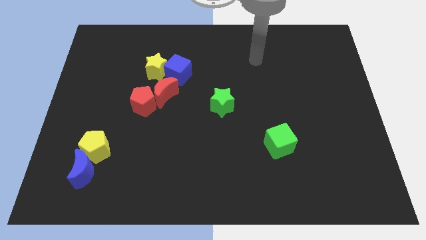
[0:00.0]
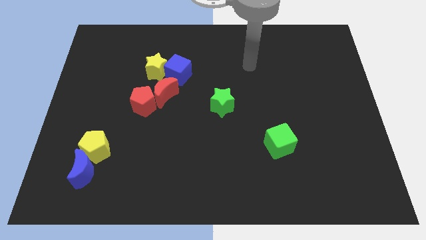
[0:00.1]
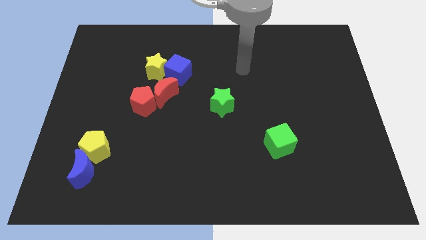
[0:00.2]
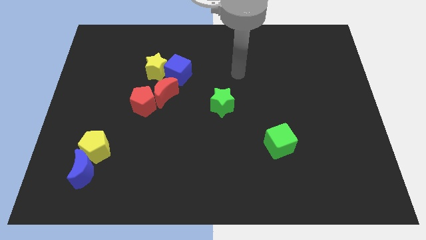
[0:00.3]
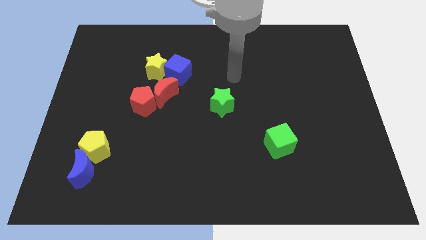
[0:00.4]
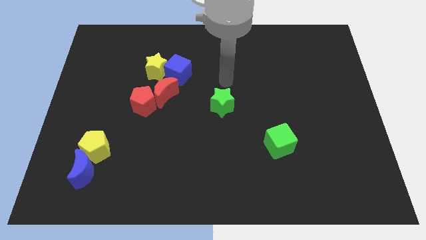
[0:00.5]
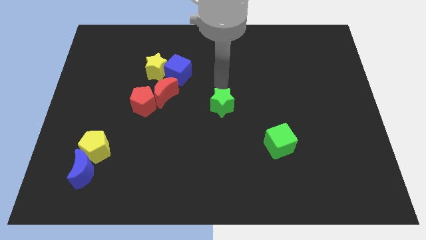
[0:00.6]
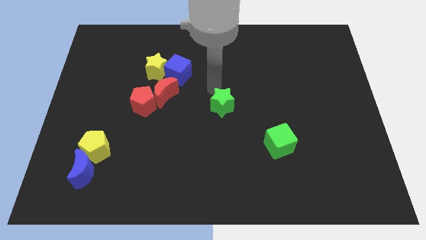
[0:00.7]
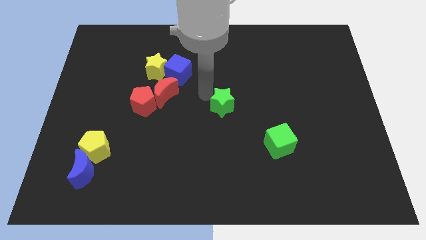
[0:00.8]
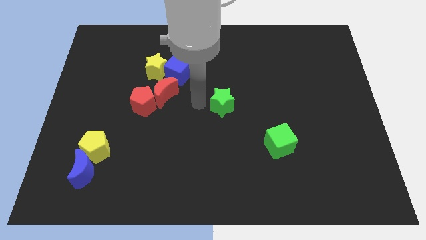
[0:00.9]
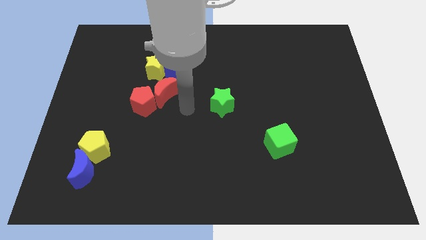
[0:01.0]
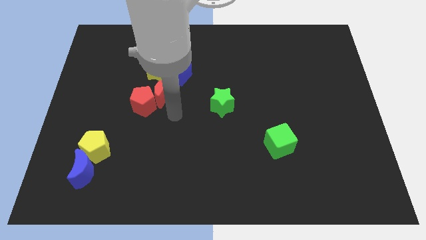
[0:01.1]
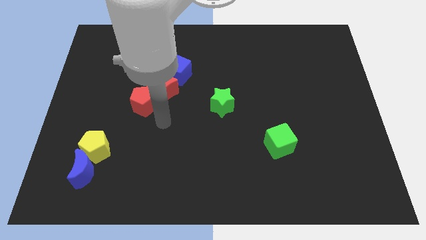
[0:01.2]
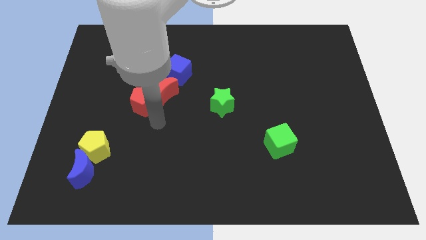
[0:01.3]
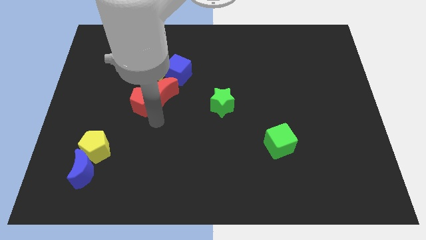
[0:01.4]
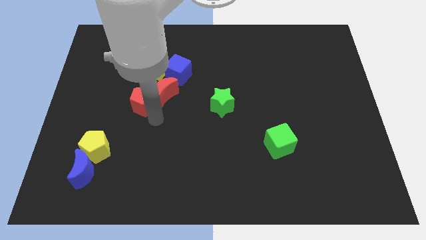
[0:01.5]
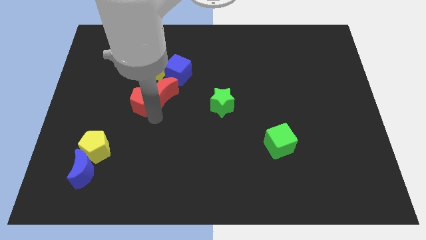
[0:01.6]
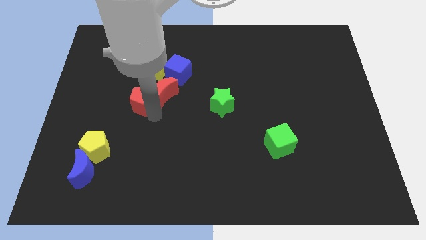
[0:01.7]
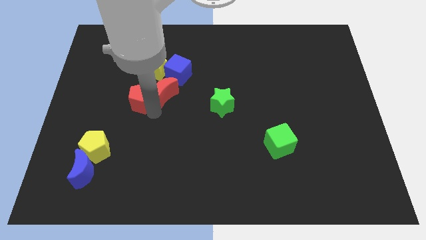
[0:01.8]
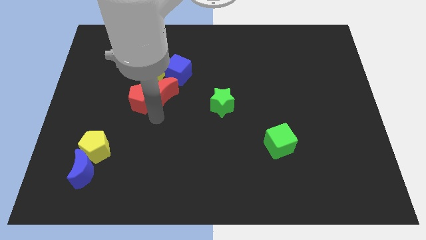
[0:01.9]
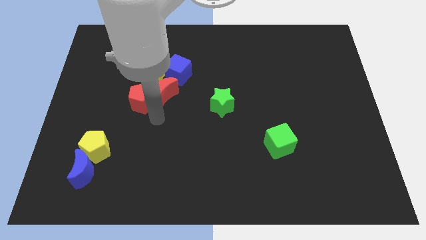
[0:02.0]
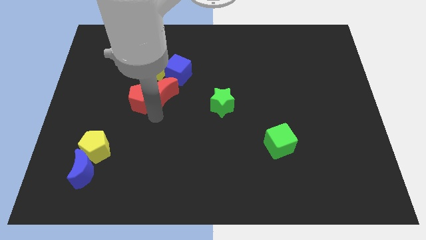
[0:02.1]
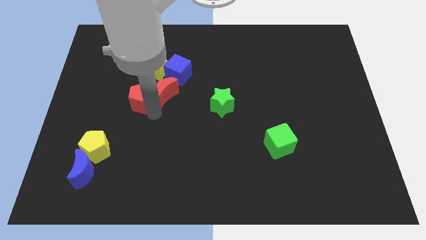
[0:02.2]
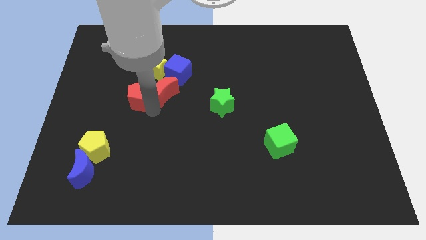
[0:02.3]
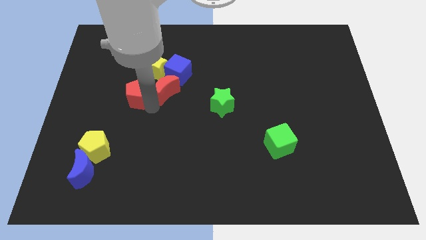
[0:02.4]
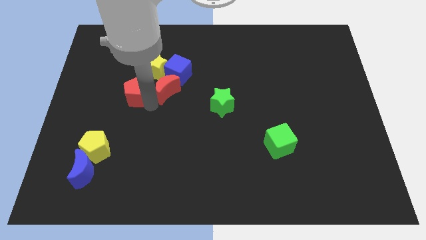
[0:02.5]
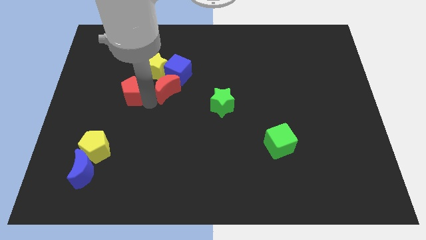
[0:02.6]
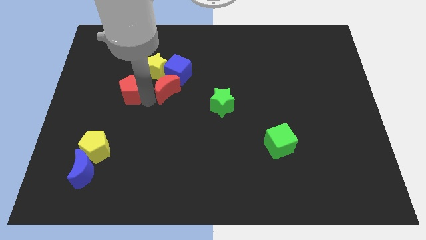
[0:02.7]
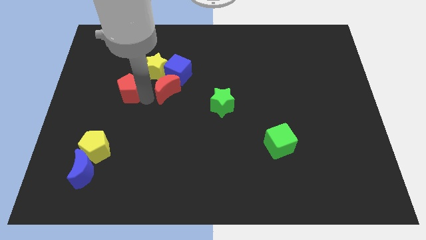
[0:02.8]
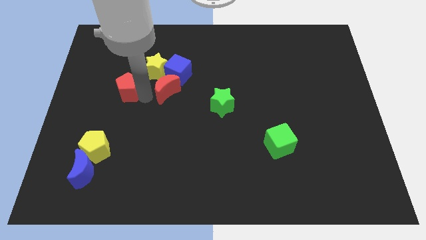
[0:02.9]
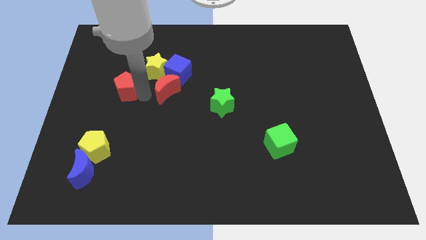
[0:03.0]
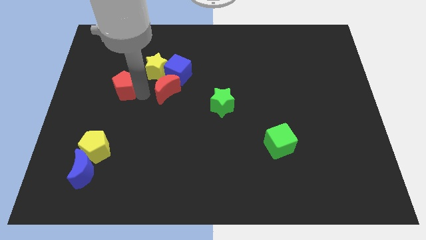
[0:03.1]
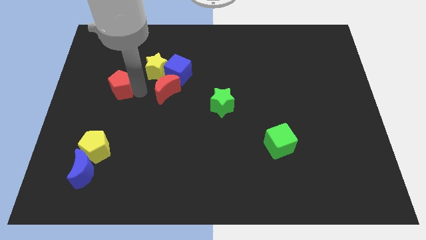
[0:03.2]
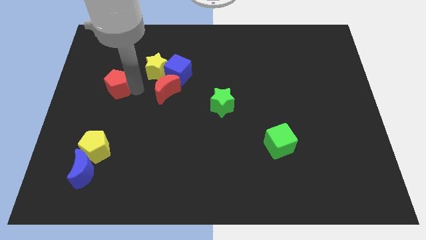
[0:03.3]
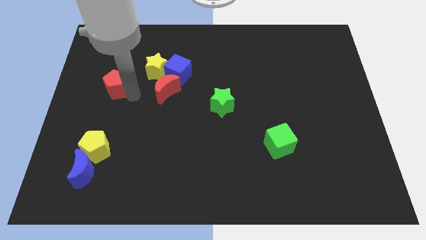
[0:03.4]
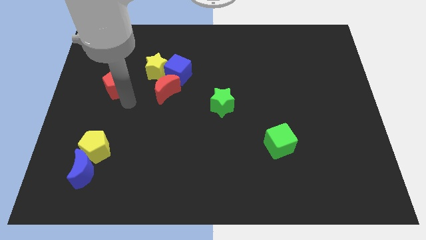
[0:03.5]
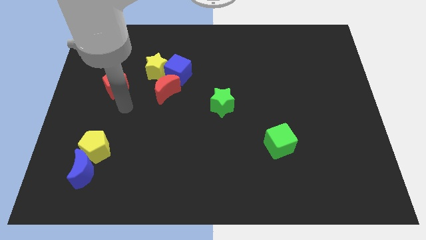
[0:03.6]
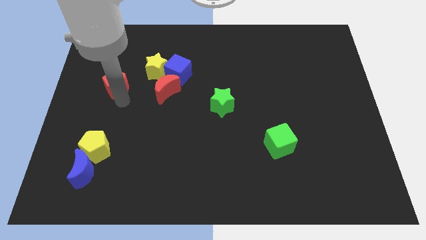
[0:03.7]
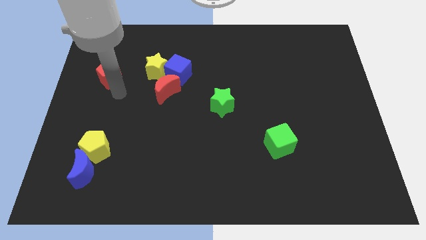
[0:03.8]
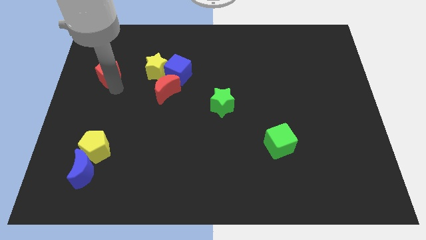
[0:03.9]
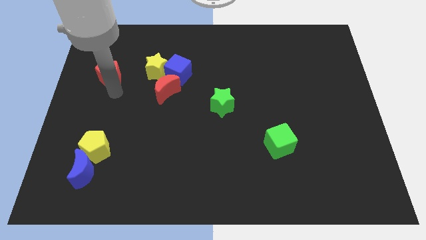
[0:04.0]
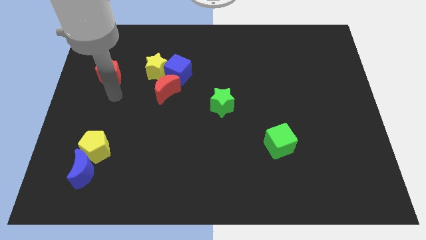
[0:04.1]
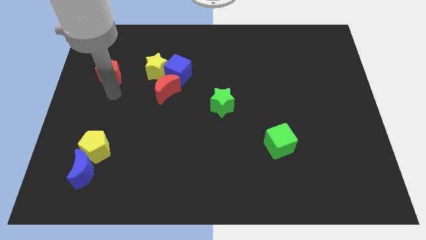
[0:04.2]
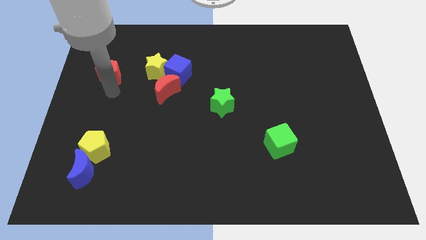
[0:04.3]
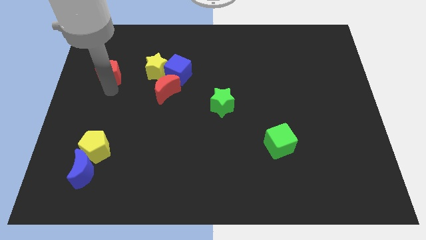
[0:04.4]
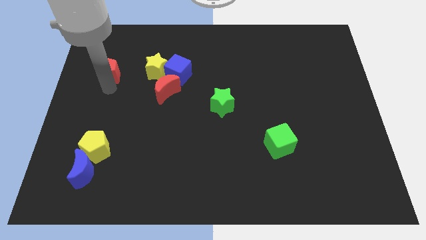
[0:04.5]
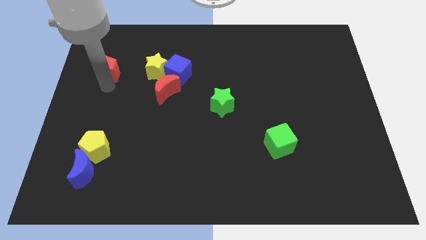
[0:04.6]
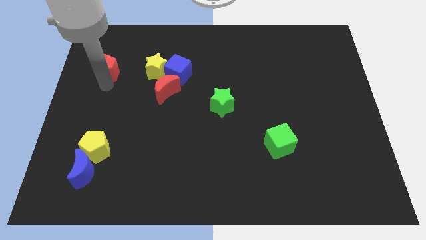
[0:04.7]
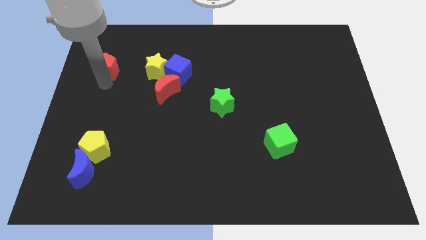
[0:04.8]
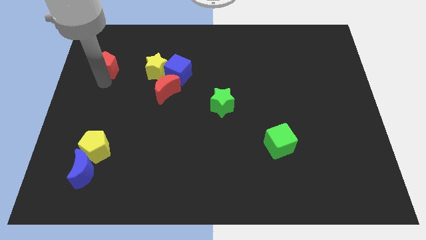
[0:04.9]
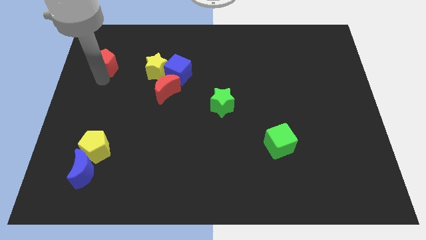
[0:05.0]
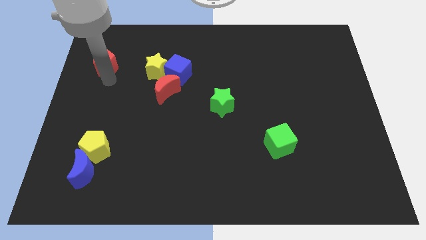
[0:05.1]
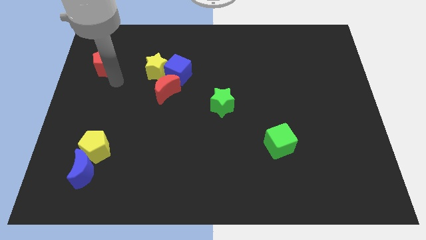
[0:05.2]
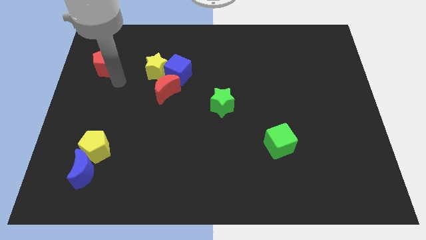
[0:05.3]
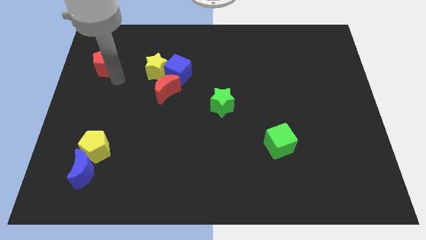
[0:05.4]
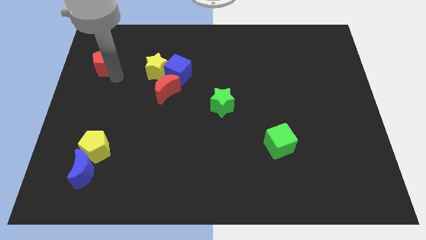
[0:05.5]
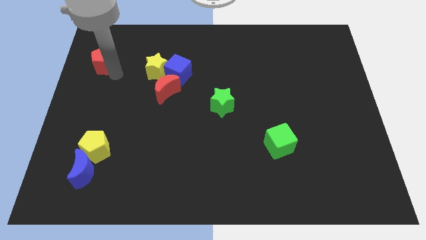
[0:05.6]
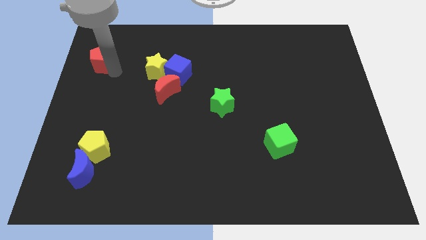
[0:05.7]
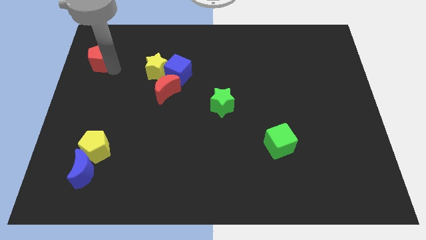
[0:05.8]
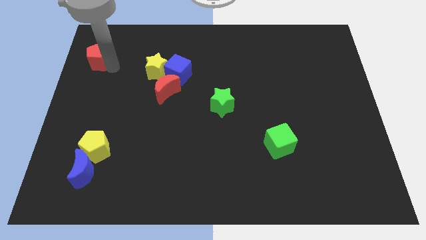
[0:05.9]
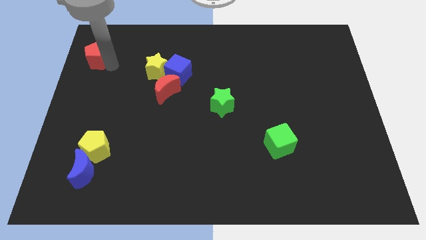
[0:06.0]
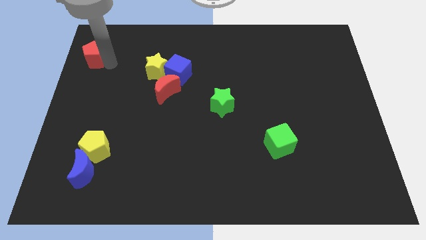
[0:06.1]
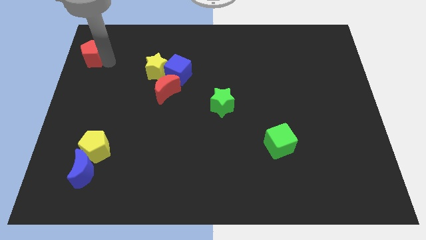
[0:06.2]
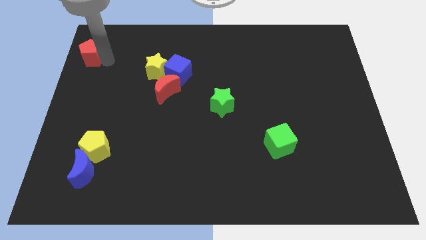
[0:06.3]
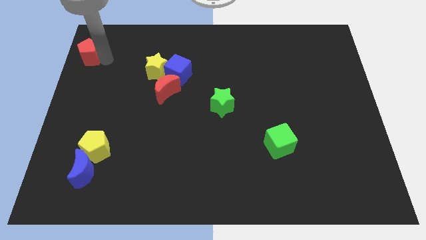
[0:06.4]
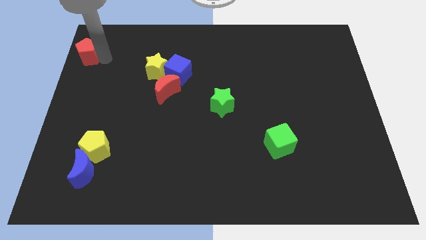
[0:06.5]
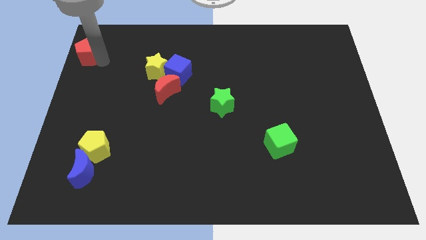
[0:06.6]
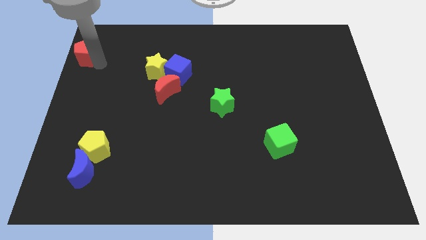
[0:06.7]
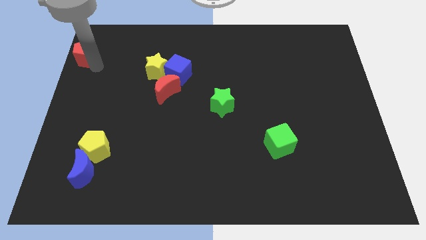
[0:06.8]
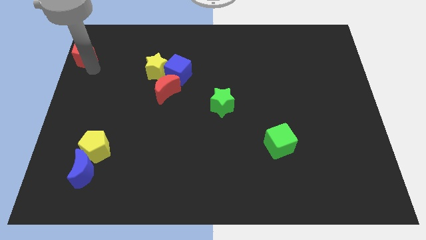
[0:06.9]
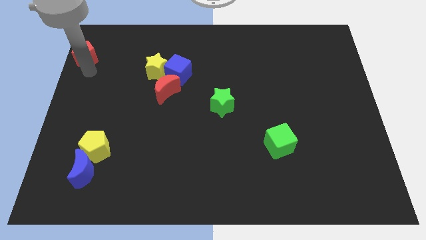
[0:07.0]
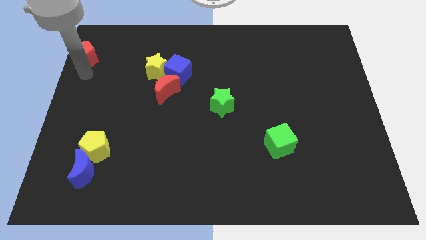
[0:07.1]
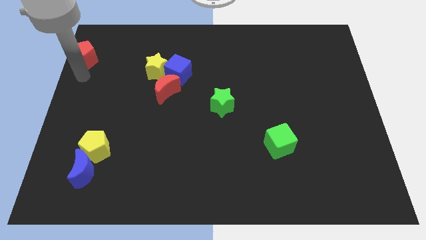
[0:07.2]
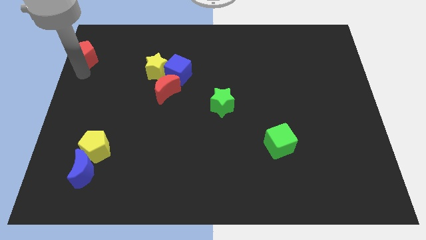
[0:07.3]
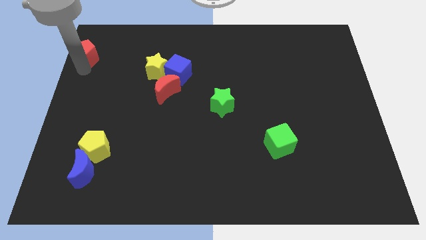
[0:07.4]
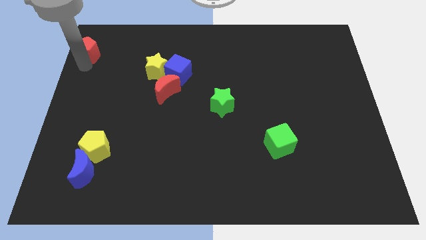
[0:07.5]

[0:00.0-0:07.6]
push the red pentagon to the upper left corner
